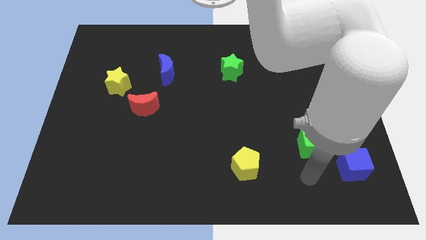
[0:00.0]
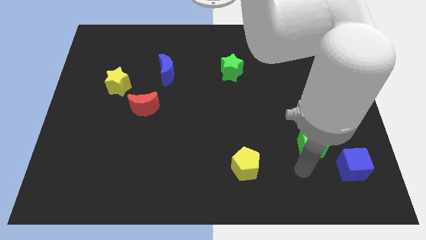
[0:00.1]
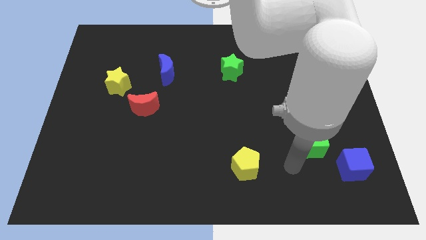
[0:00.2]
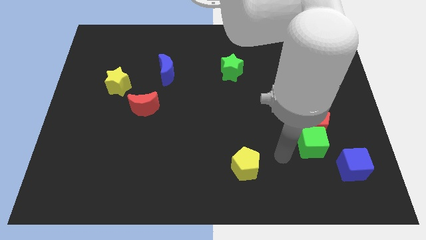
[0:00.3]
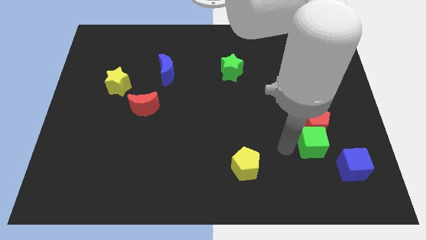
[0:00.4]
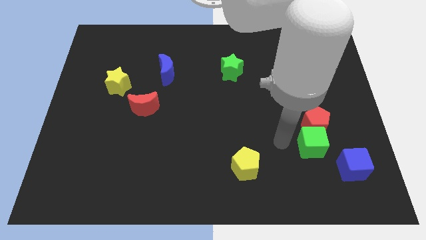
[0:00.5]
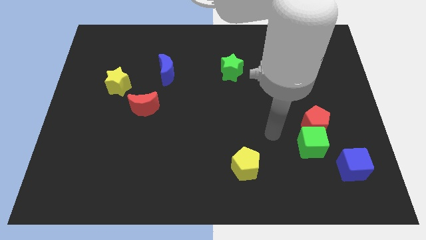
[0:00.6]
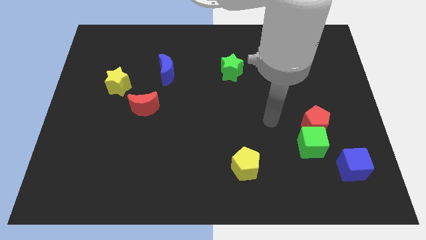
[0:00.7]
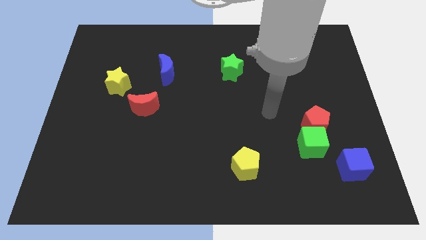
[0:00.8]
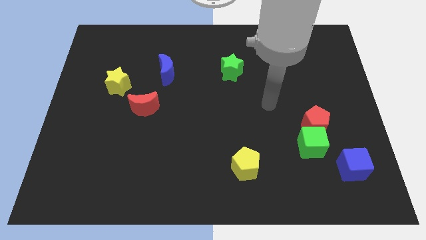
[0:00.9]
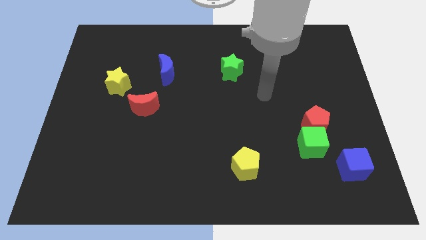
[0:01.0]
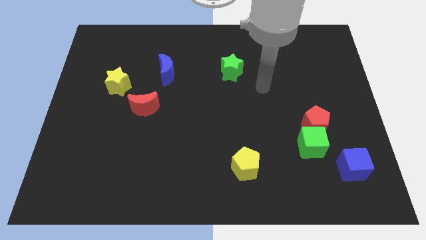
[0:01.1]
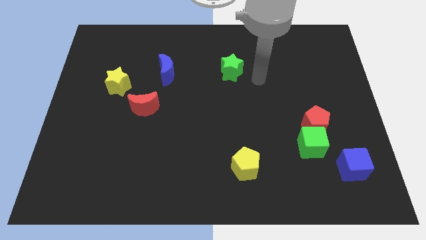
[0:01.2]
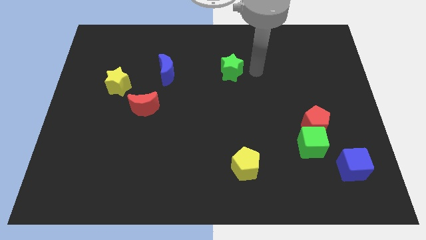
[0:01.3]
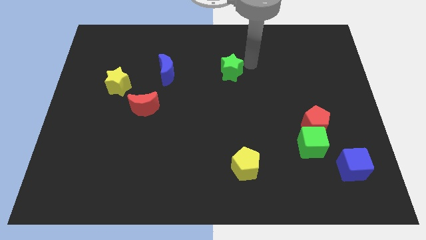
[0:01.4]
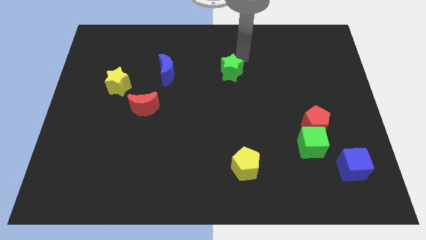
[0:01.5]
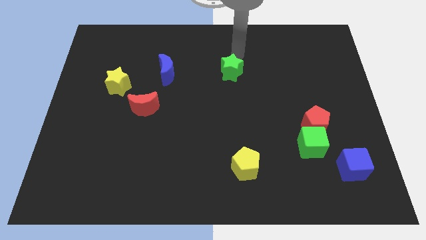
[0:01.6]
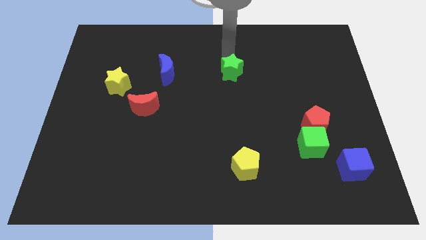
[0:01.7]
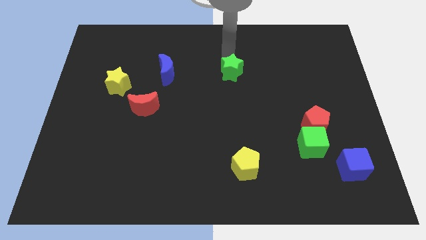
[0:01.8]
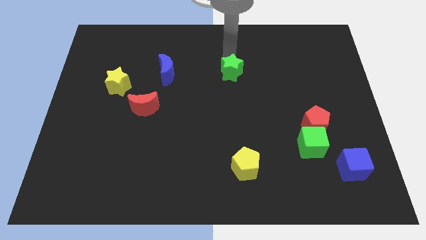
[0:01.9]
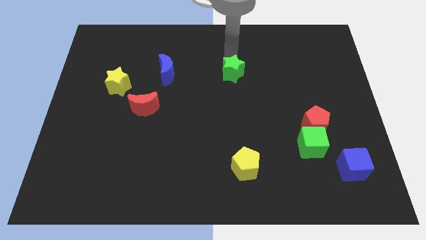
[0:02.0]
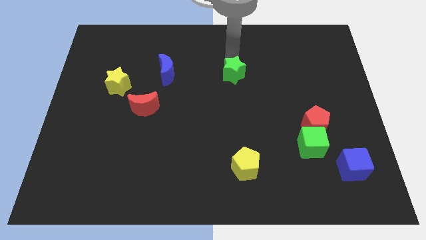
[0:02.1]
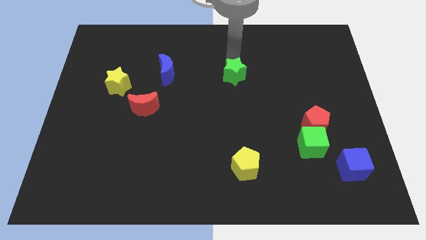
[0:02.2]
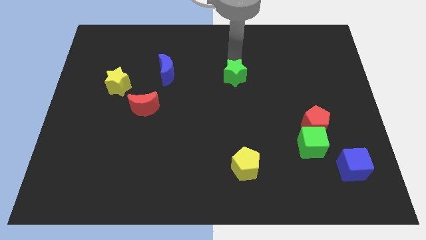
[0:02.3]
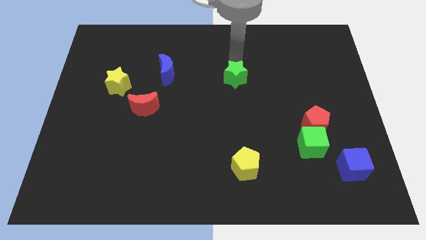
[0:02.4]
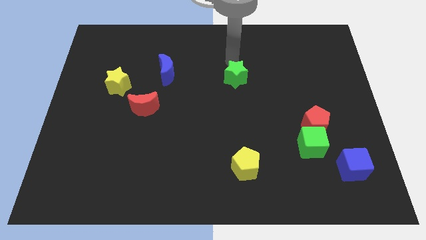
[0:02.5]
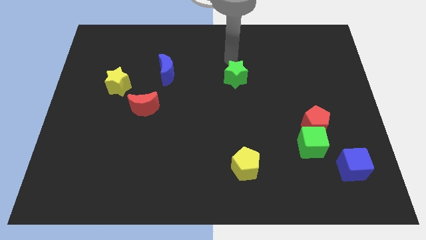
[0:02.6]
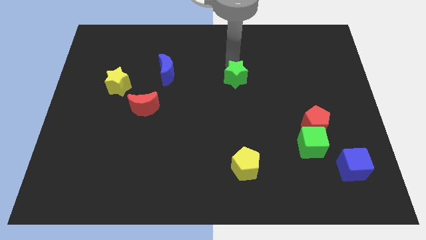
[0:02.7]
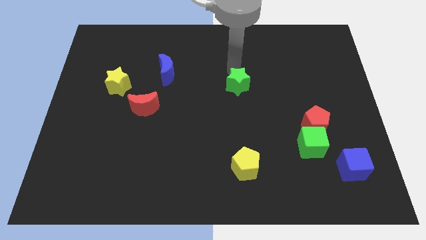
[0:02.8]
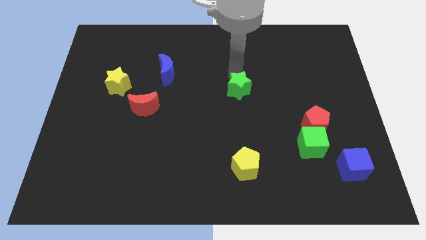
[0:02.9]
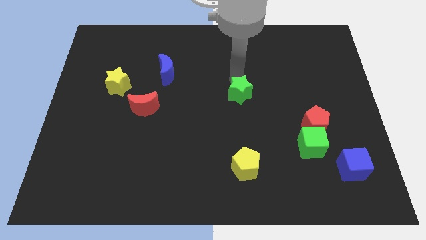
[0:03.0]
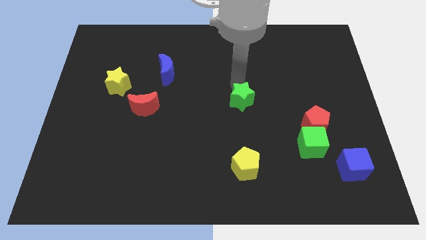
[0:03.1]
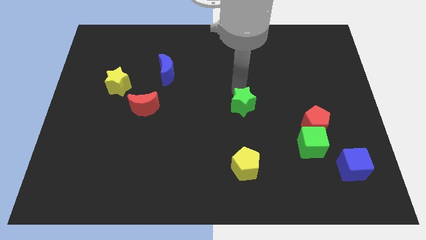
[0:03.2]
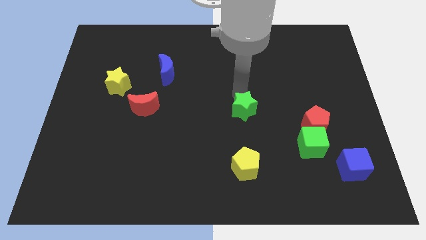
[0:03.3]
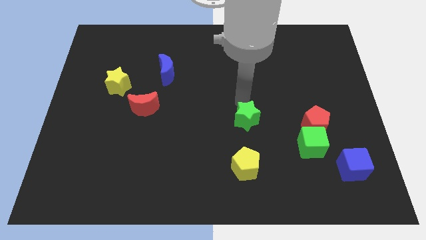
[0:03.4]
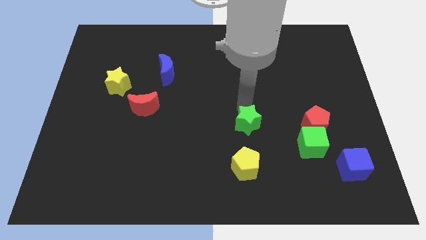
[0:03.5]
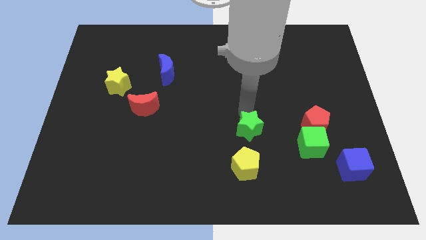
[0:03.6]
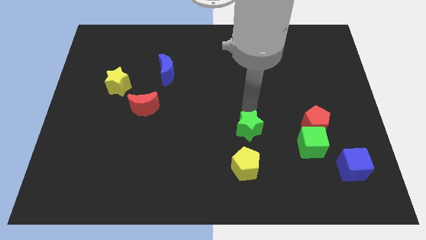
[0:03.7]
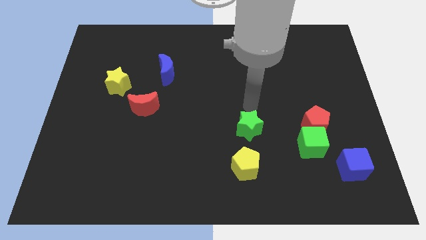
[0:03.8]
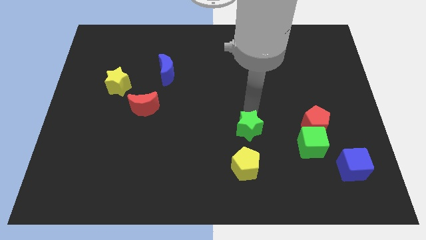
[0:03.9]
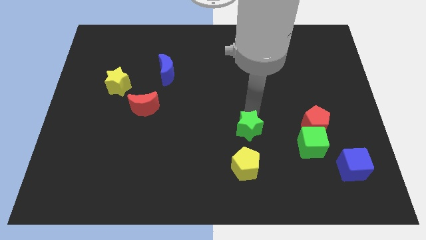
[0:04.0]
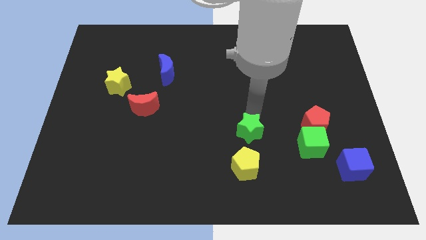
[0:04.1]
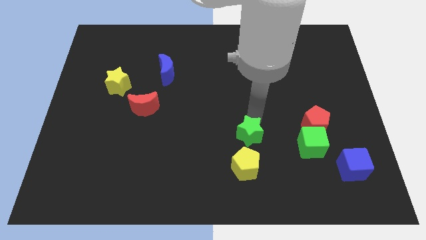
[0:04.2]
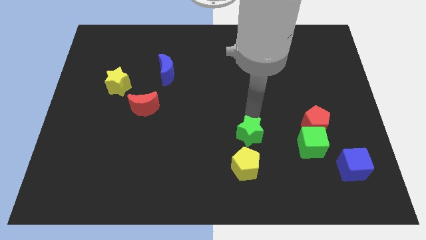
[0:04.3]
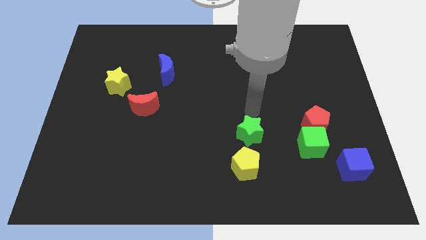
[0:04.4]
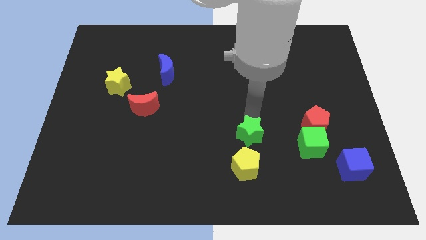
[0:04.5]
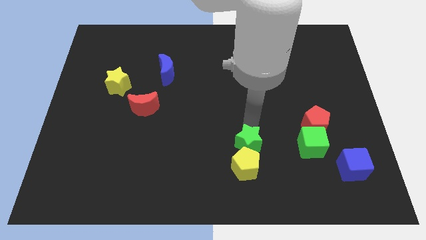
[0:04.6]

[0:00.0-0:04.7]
push the green star close to the yellow pentagon

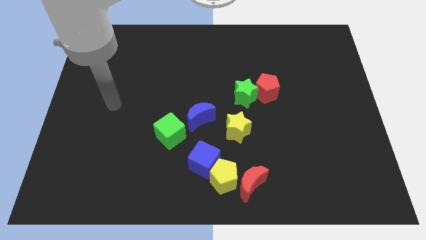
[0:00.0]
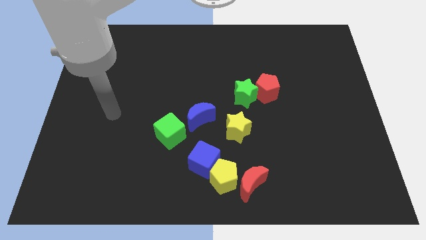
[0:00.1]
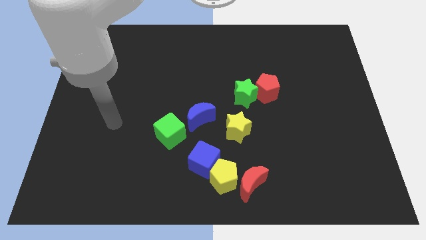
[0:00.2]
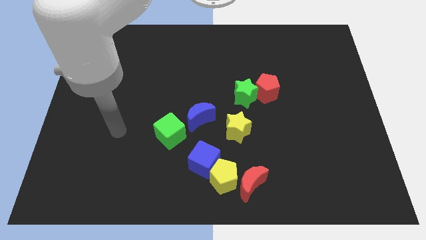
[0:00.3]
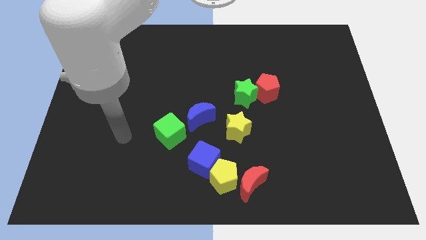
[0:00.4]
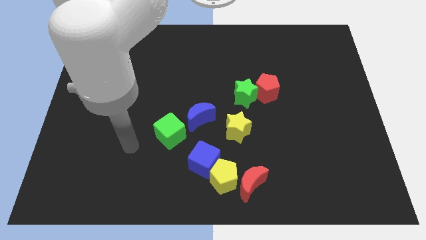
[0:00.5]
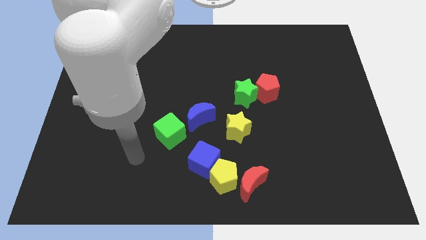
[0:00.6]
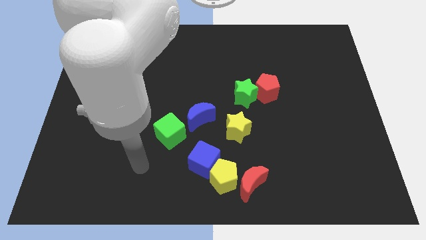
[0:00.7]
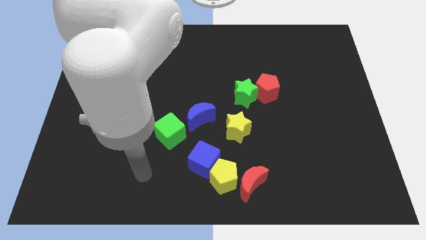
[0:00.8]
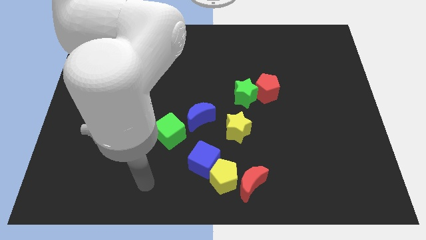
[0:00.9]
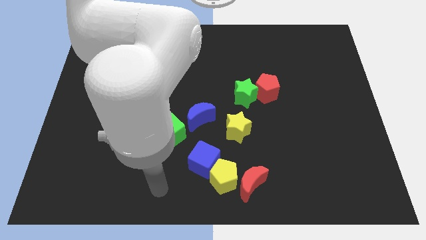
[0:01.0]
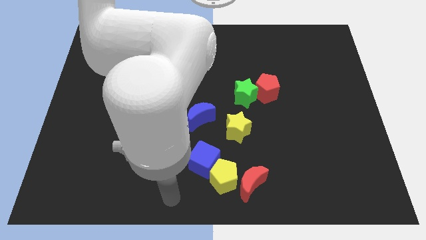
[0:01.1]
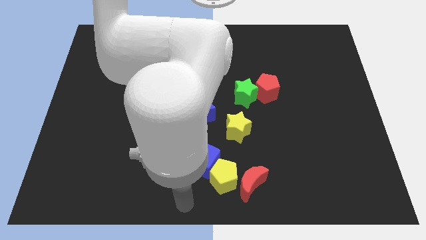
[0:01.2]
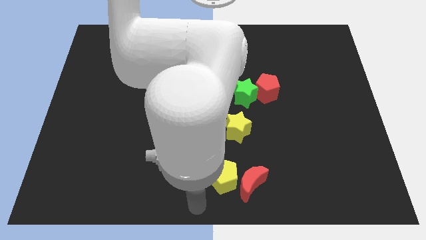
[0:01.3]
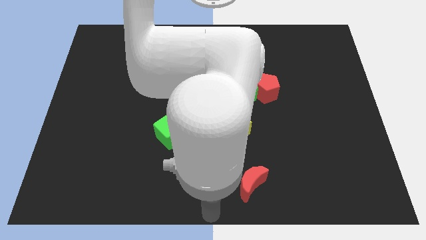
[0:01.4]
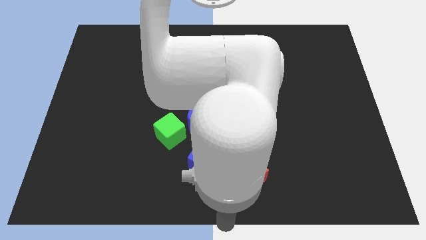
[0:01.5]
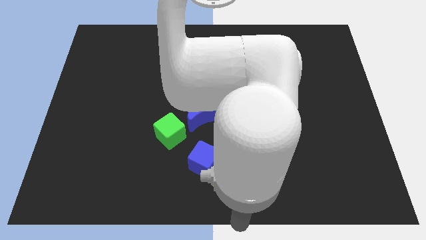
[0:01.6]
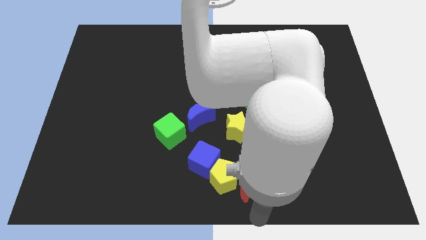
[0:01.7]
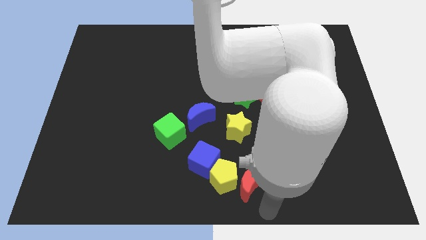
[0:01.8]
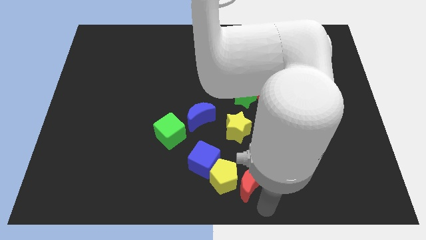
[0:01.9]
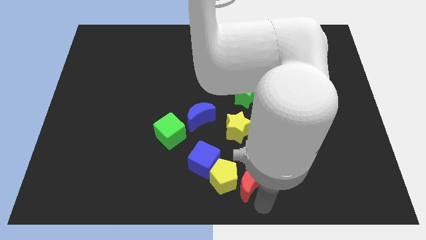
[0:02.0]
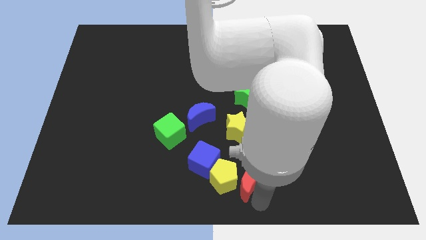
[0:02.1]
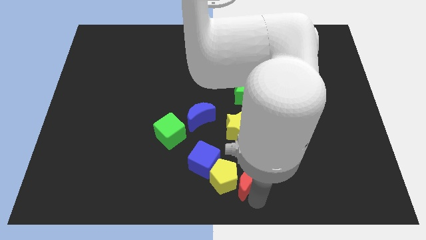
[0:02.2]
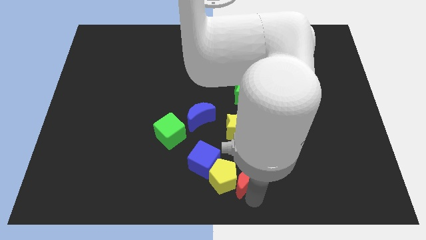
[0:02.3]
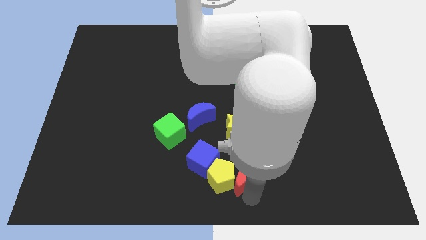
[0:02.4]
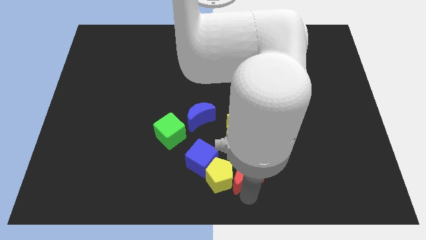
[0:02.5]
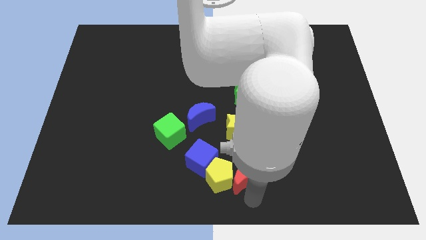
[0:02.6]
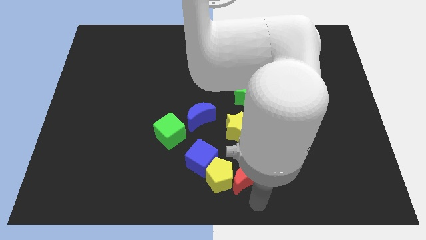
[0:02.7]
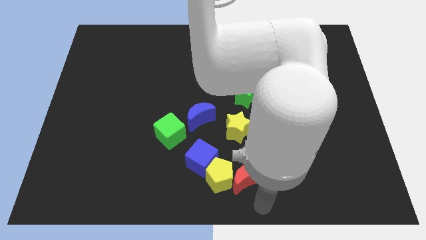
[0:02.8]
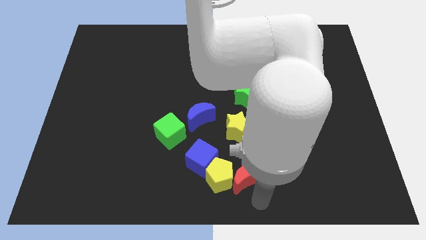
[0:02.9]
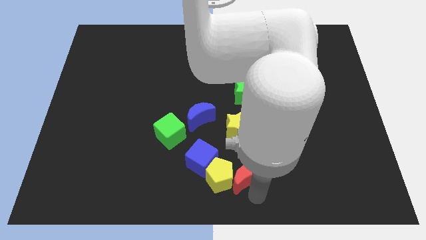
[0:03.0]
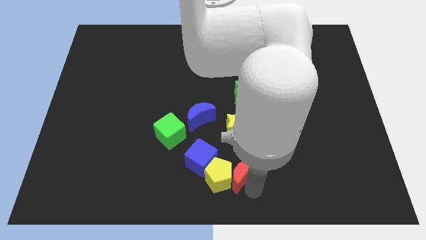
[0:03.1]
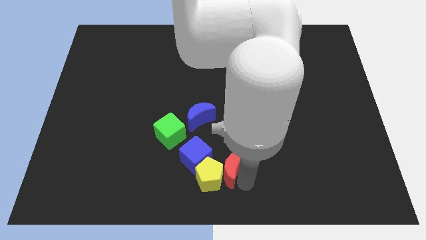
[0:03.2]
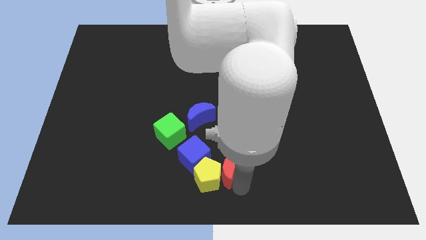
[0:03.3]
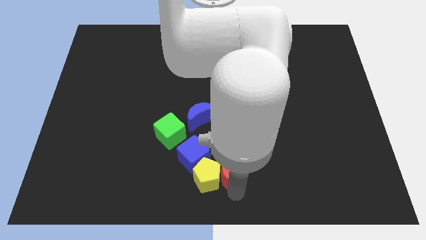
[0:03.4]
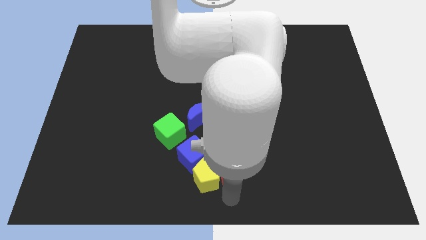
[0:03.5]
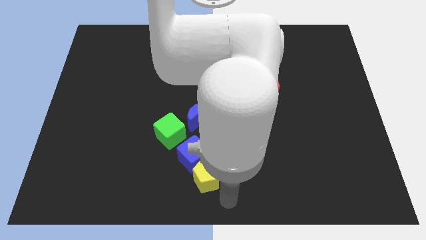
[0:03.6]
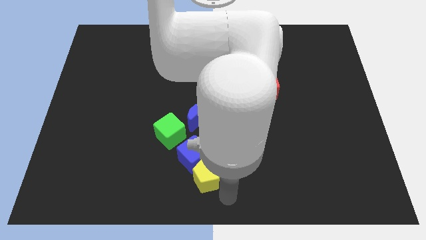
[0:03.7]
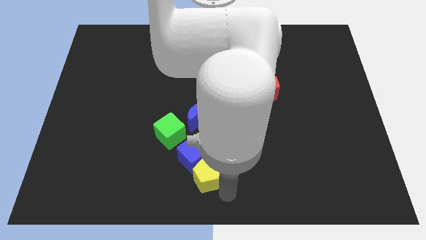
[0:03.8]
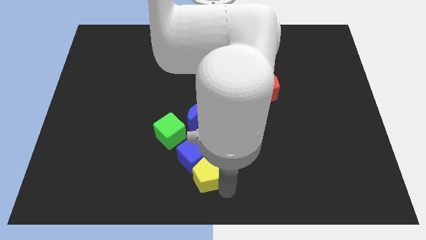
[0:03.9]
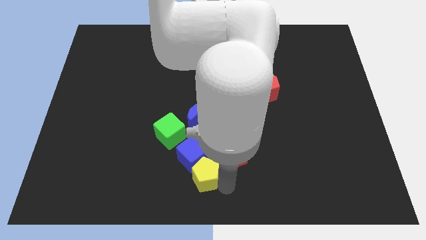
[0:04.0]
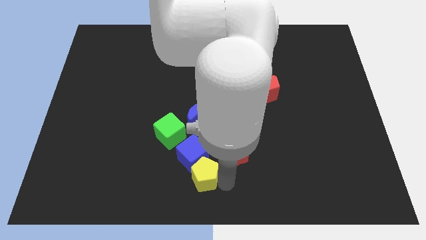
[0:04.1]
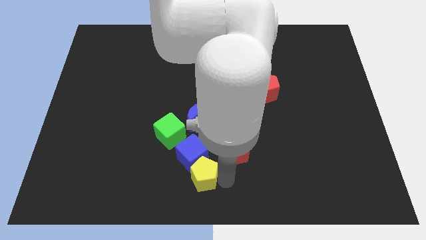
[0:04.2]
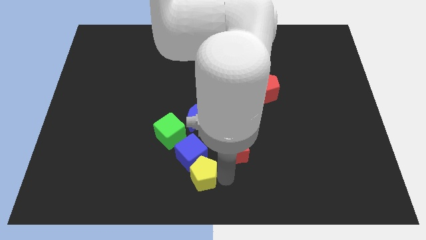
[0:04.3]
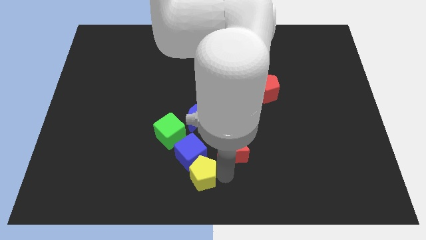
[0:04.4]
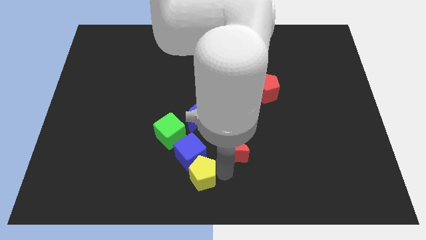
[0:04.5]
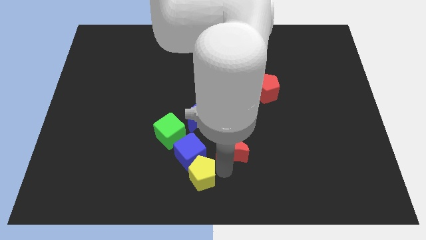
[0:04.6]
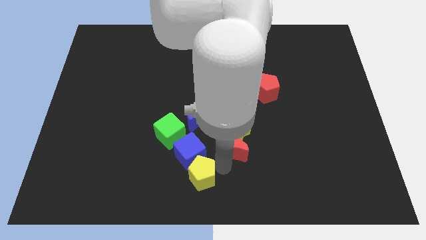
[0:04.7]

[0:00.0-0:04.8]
move the red moon to the yellow star
